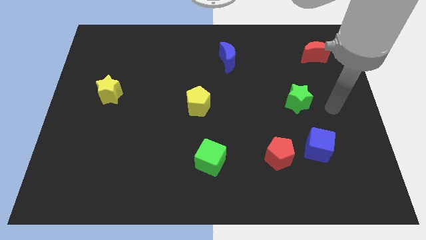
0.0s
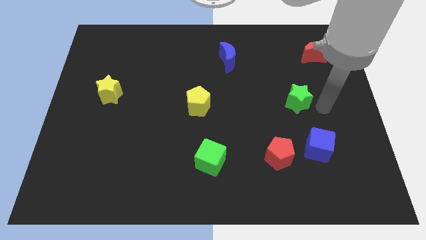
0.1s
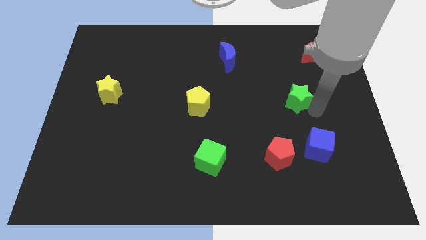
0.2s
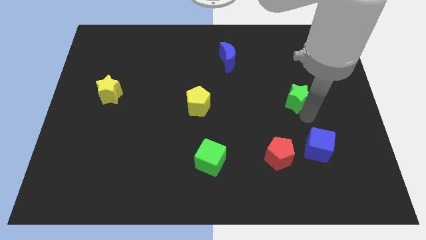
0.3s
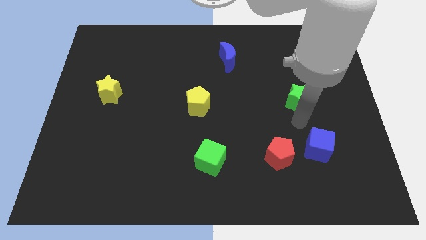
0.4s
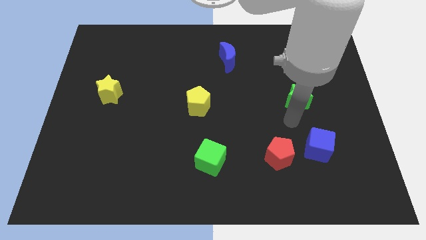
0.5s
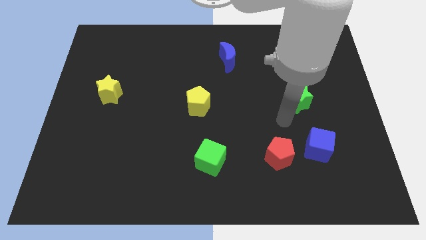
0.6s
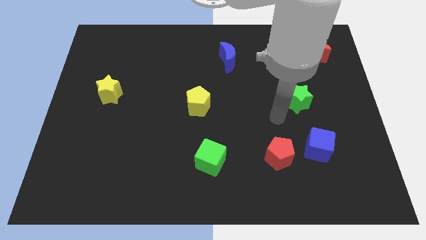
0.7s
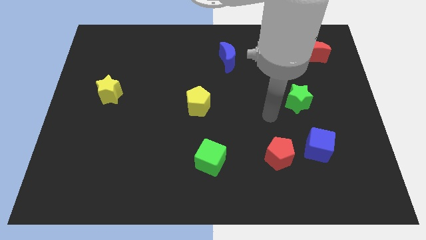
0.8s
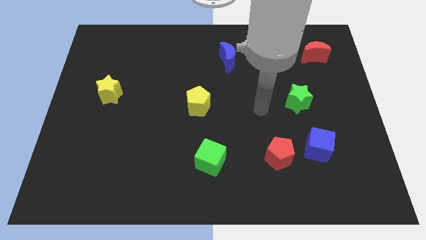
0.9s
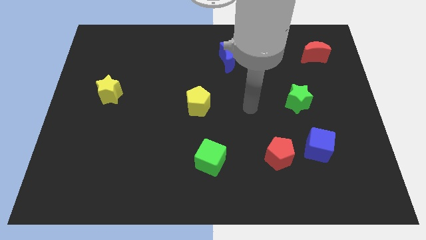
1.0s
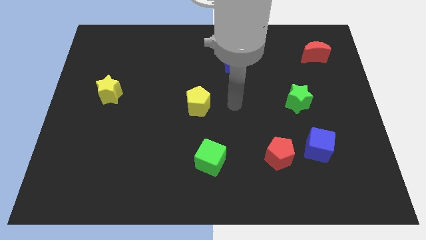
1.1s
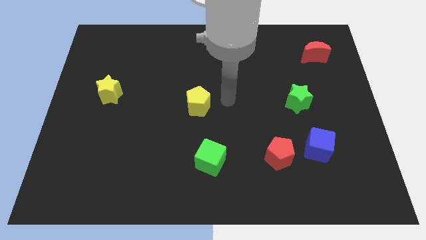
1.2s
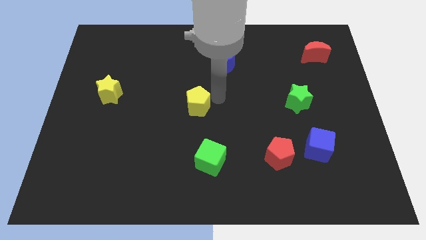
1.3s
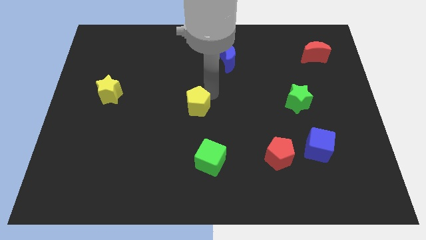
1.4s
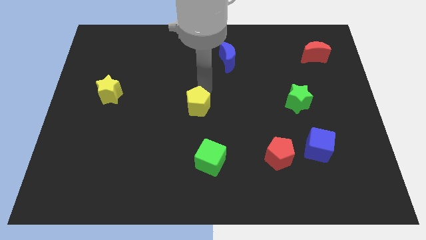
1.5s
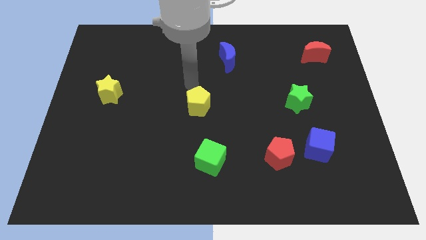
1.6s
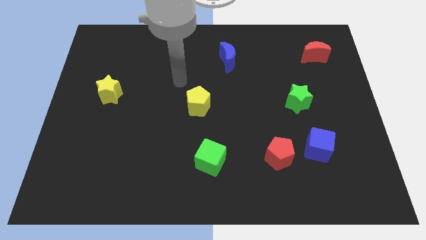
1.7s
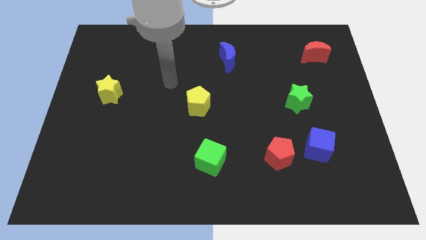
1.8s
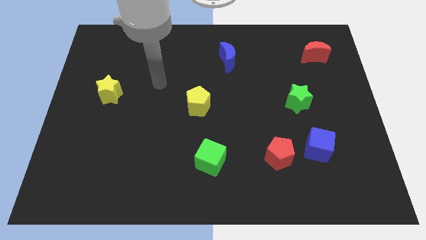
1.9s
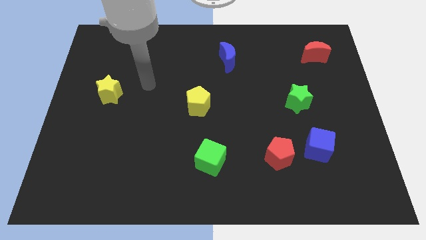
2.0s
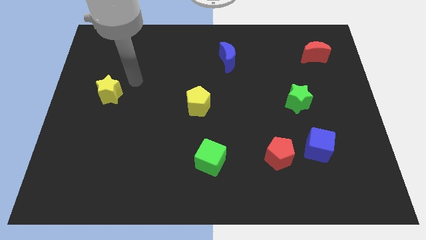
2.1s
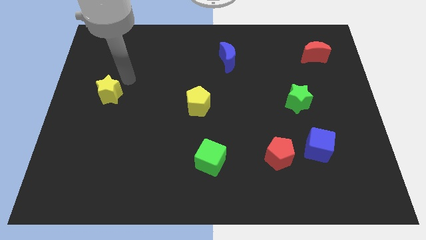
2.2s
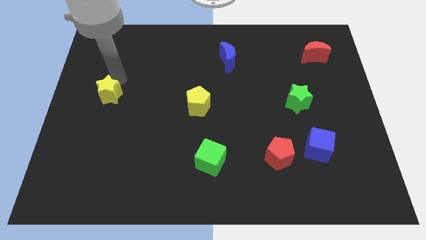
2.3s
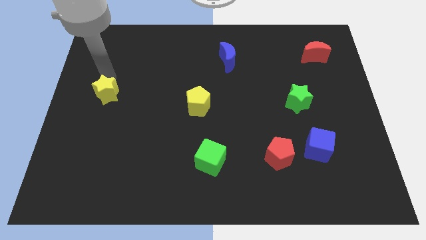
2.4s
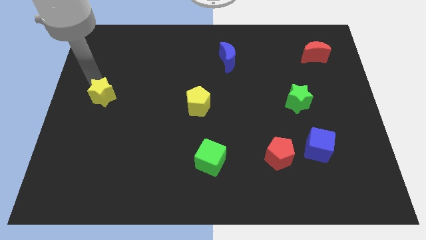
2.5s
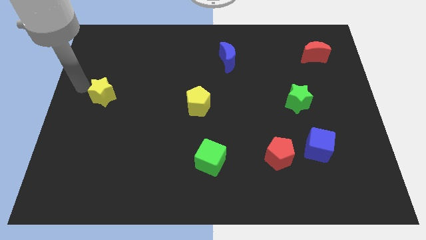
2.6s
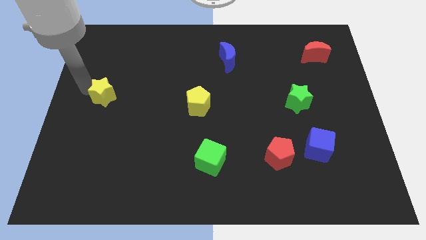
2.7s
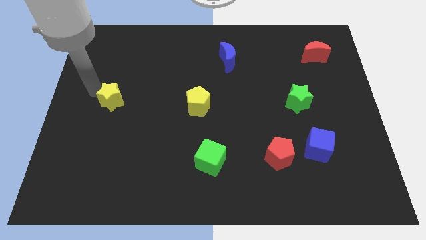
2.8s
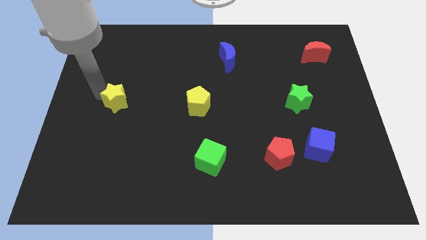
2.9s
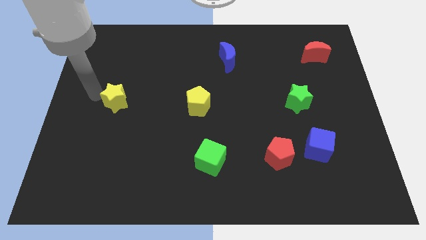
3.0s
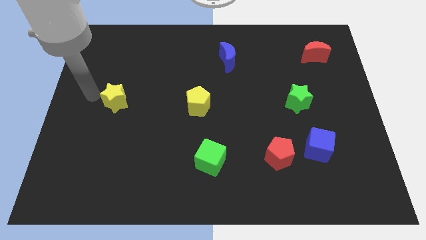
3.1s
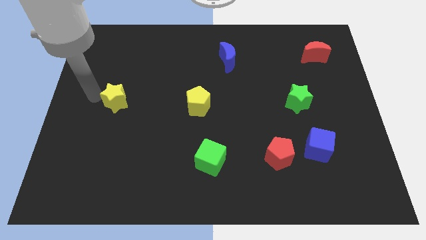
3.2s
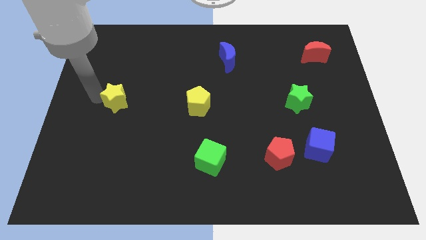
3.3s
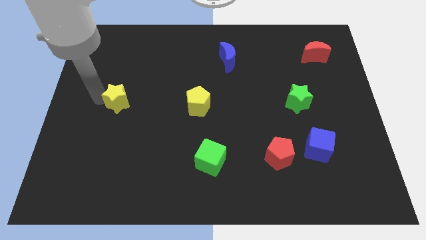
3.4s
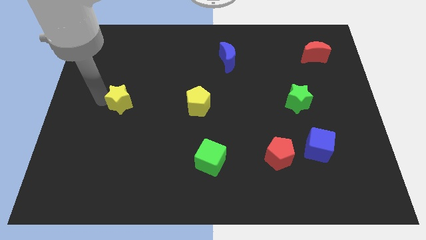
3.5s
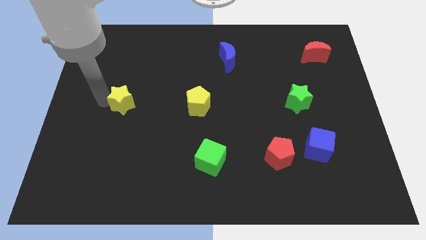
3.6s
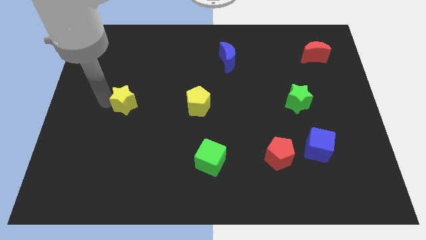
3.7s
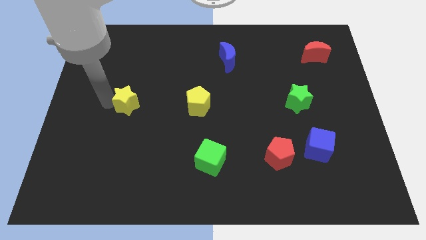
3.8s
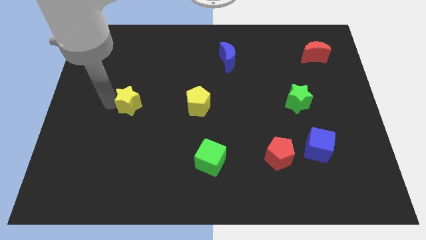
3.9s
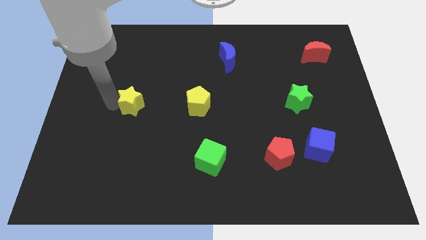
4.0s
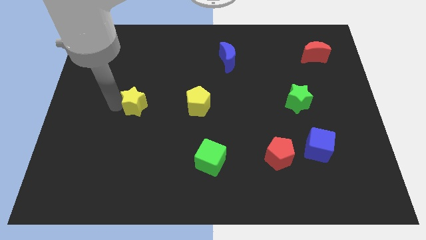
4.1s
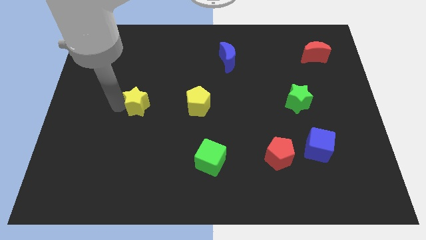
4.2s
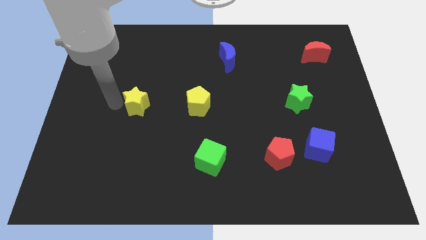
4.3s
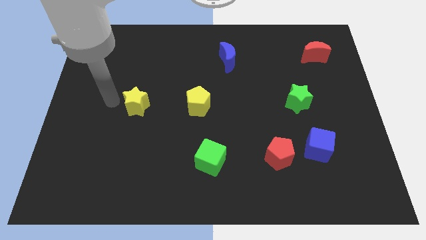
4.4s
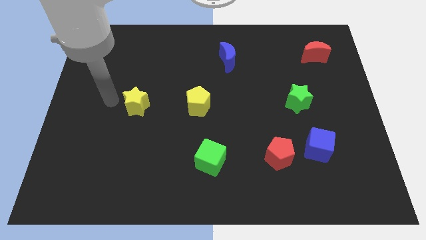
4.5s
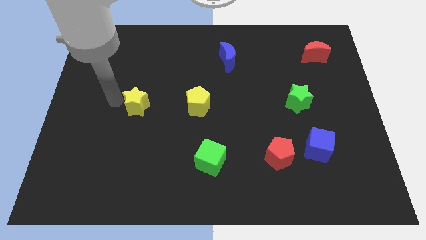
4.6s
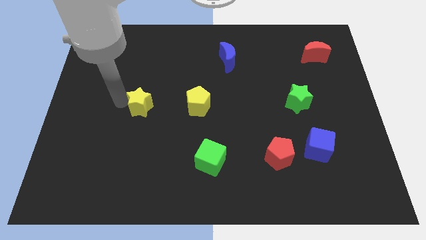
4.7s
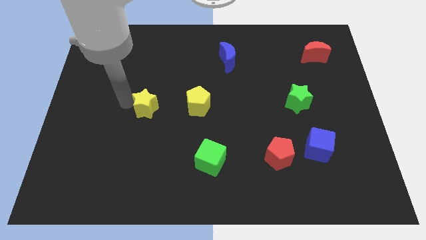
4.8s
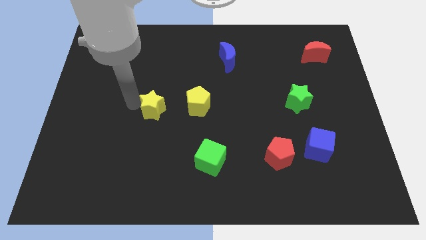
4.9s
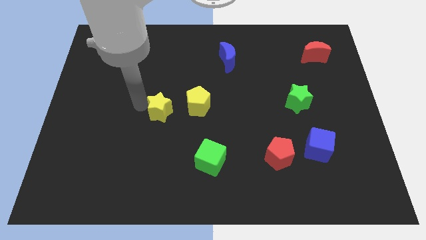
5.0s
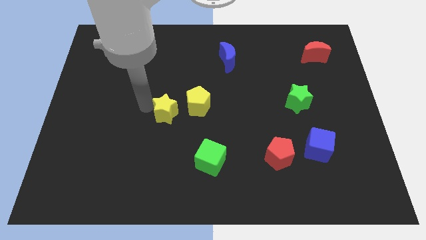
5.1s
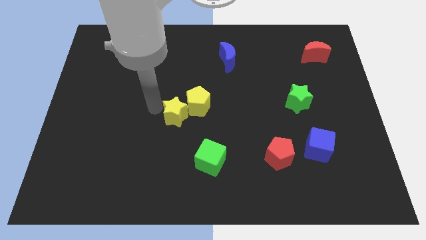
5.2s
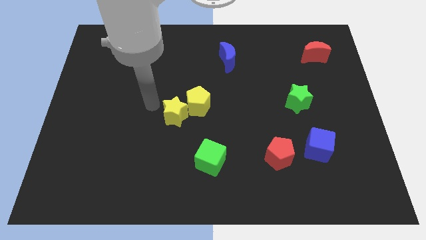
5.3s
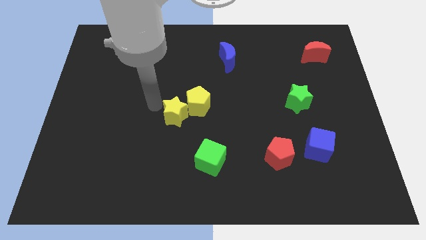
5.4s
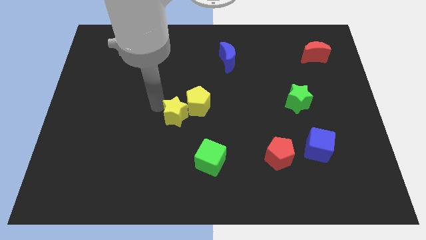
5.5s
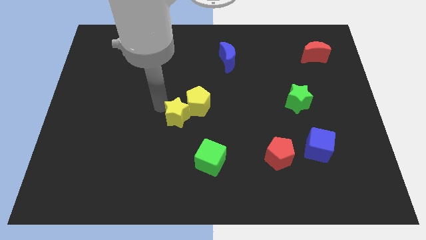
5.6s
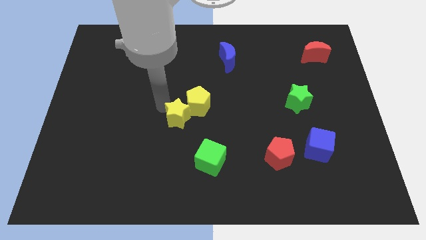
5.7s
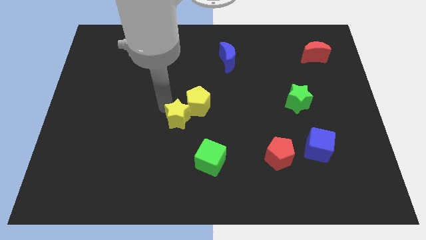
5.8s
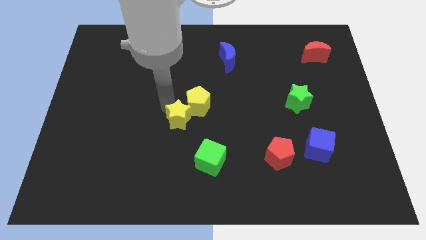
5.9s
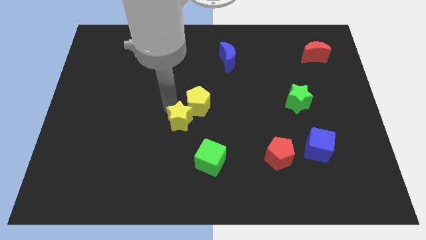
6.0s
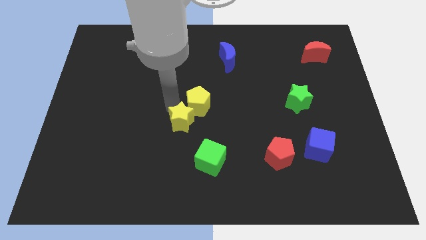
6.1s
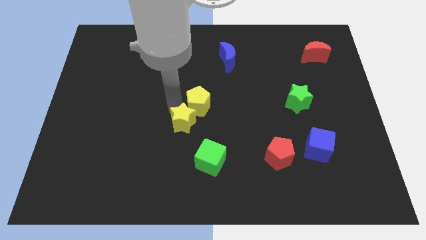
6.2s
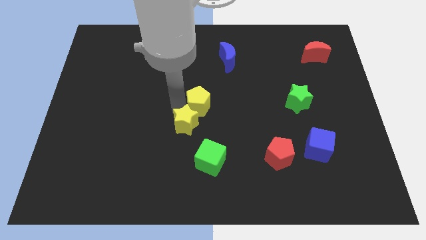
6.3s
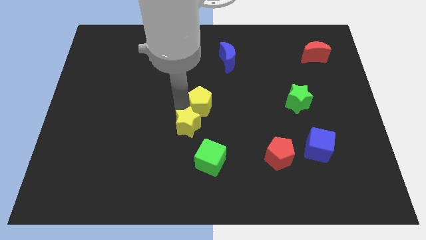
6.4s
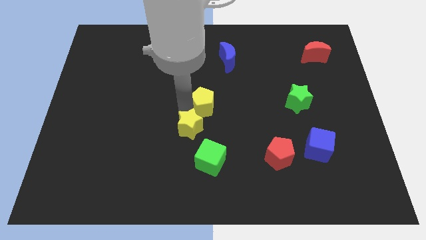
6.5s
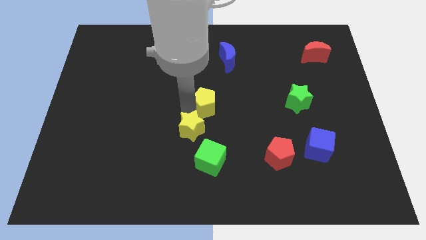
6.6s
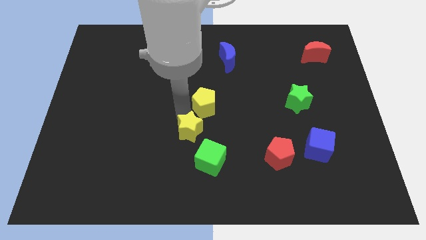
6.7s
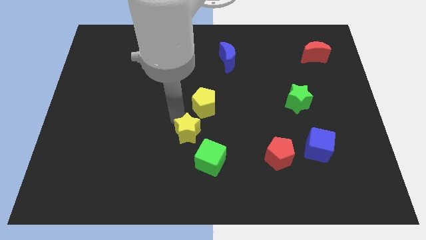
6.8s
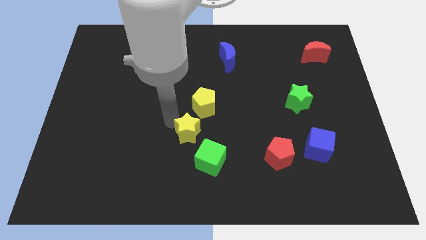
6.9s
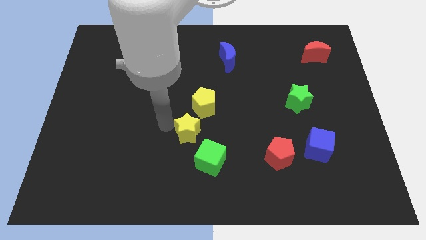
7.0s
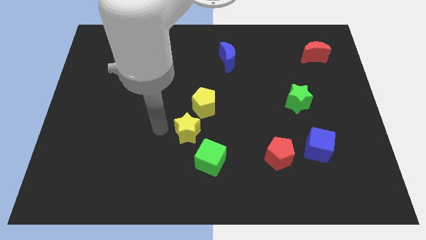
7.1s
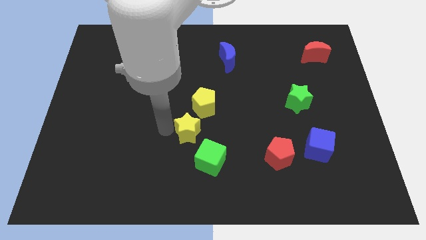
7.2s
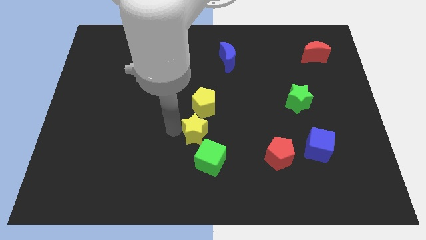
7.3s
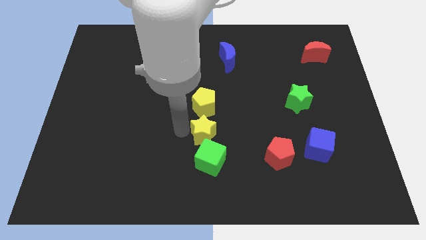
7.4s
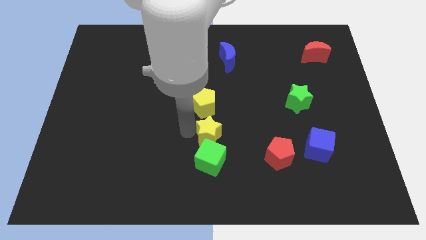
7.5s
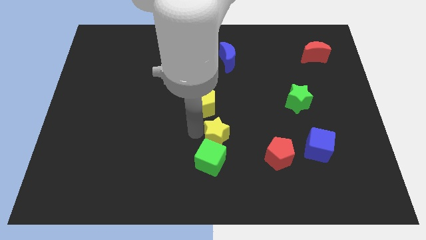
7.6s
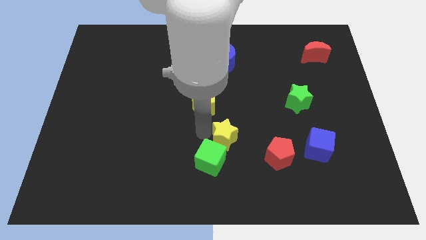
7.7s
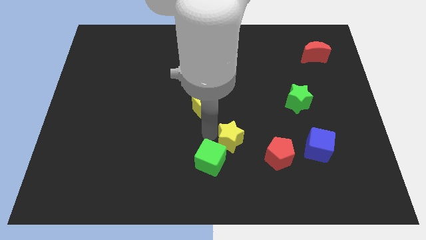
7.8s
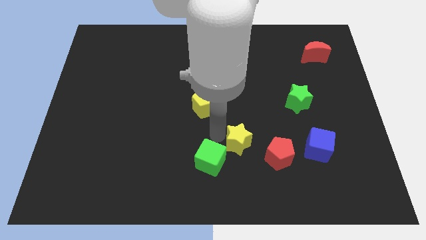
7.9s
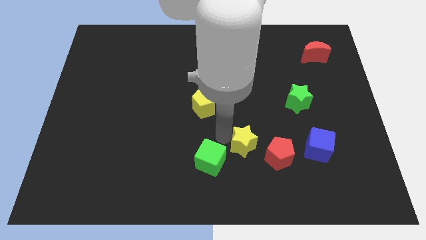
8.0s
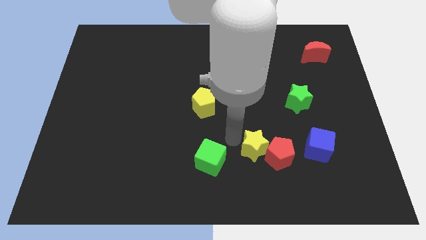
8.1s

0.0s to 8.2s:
push the yellow star to the red pentagon
